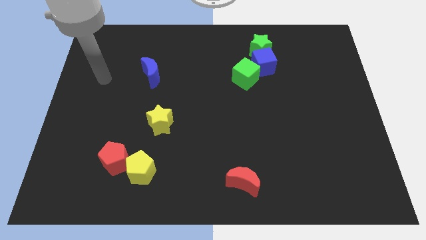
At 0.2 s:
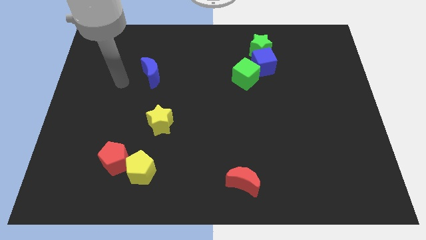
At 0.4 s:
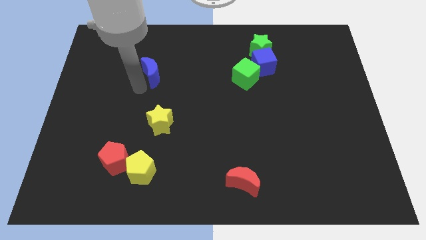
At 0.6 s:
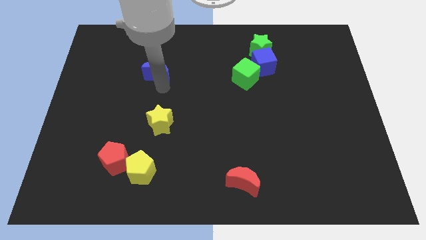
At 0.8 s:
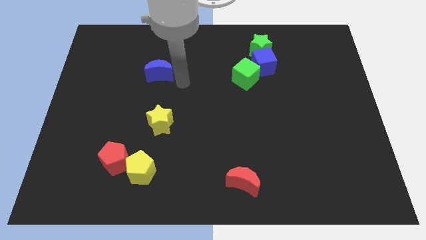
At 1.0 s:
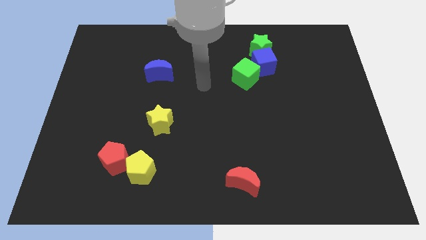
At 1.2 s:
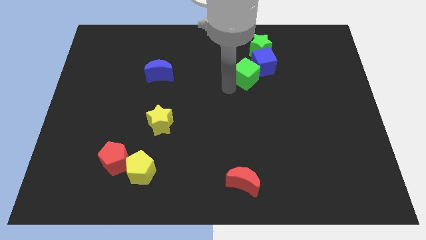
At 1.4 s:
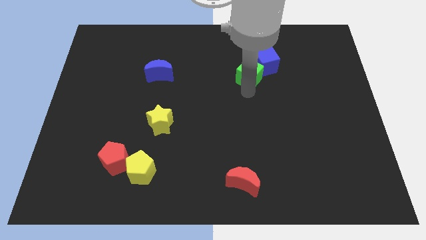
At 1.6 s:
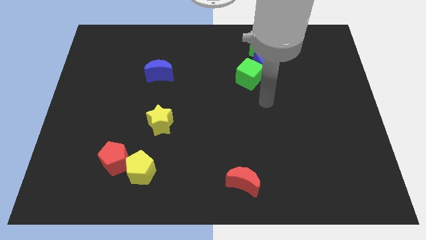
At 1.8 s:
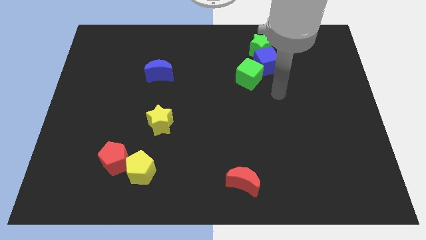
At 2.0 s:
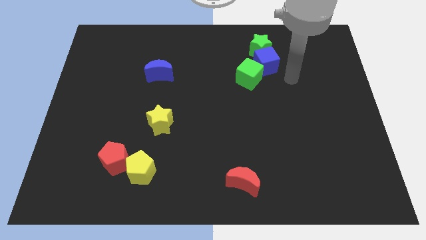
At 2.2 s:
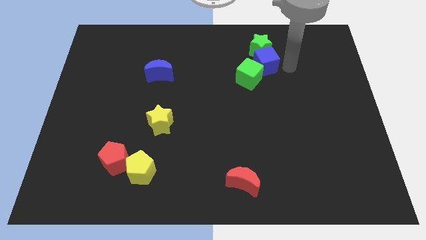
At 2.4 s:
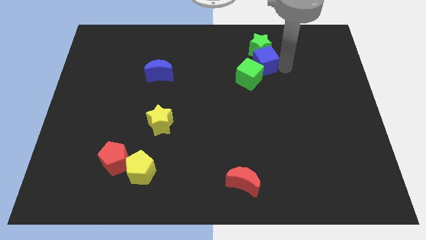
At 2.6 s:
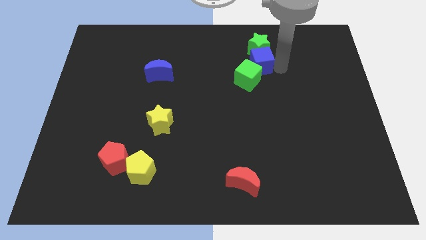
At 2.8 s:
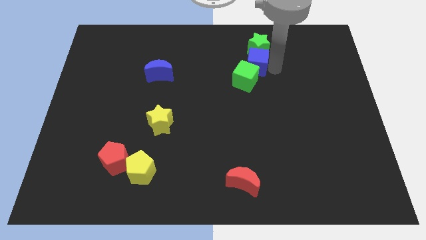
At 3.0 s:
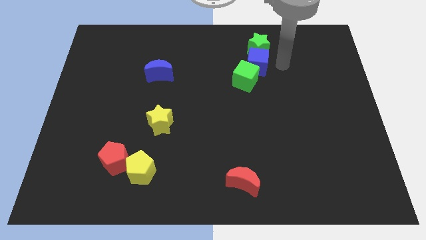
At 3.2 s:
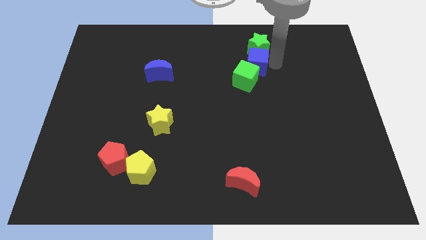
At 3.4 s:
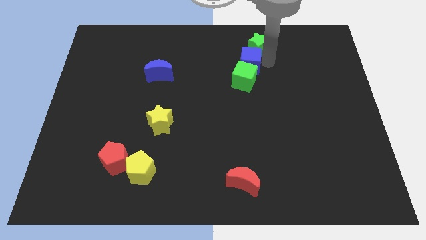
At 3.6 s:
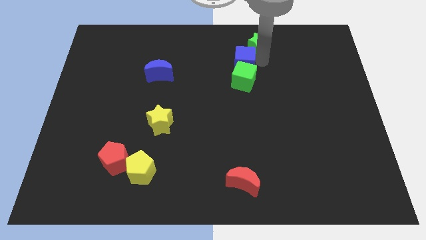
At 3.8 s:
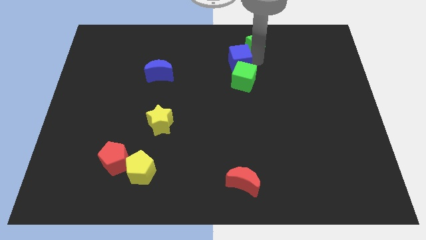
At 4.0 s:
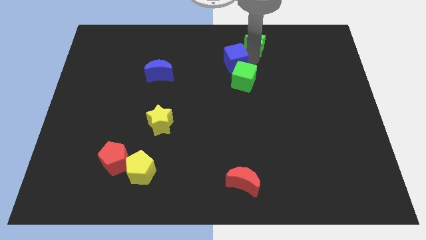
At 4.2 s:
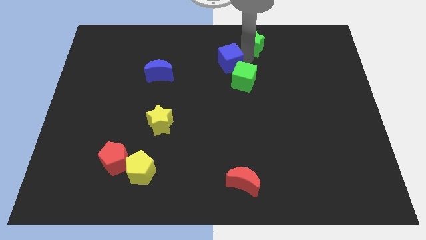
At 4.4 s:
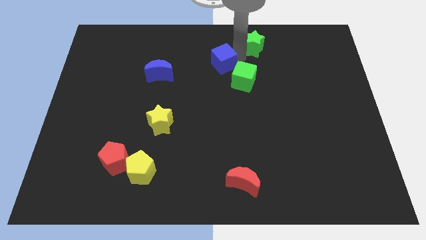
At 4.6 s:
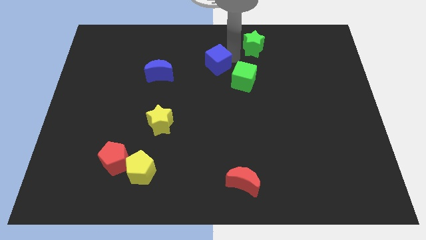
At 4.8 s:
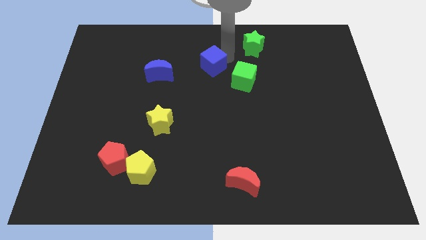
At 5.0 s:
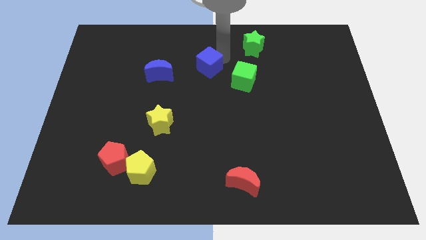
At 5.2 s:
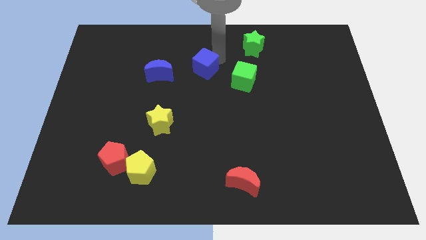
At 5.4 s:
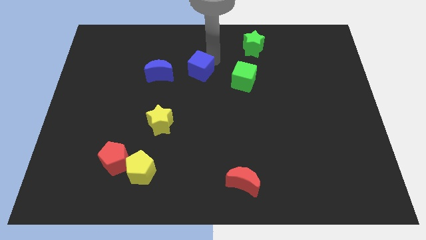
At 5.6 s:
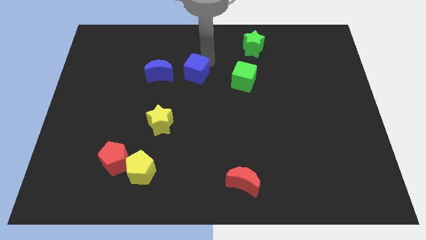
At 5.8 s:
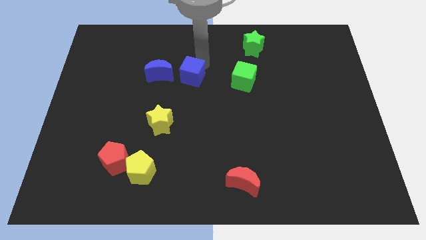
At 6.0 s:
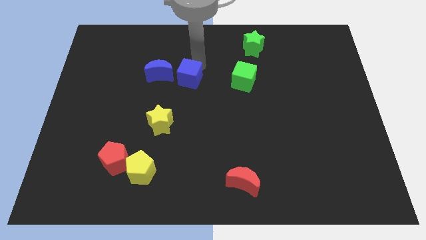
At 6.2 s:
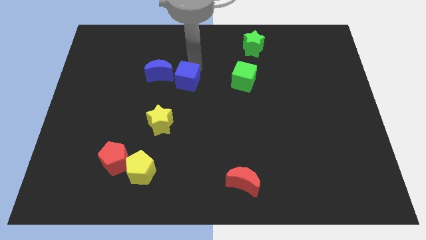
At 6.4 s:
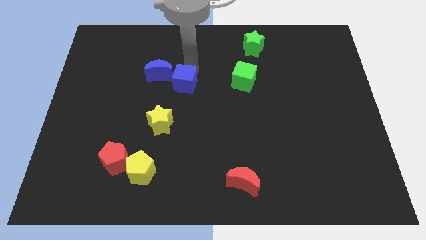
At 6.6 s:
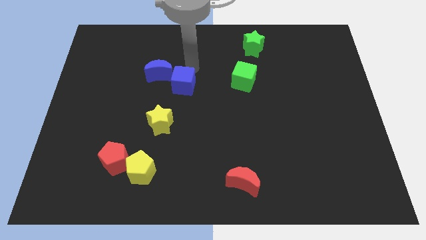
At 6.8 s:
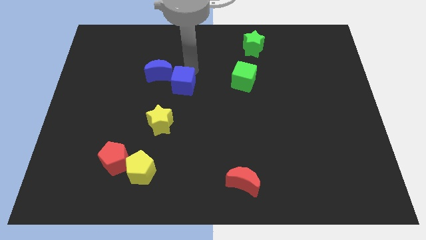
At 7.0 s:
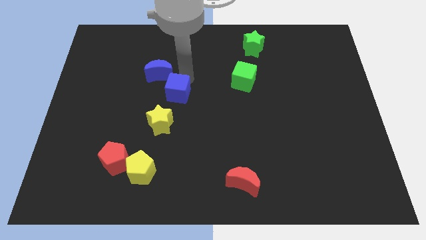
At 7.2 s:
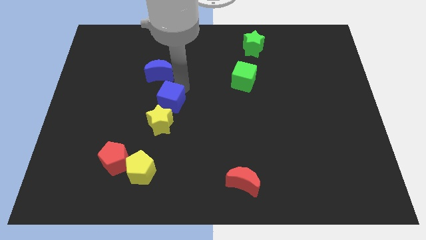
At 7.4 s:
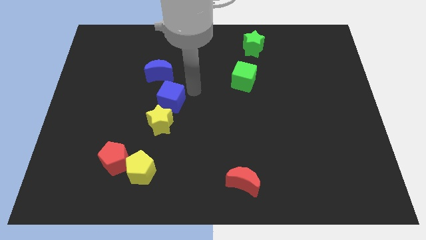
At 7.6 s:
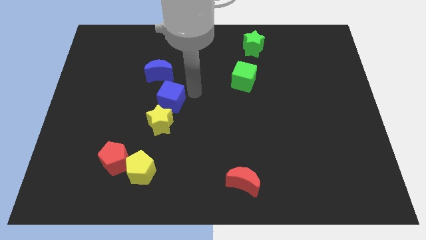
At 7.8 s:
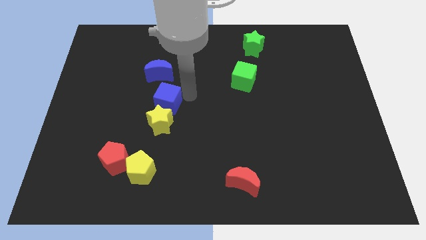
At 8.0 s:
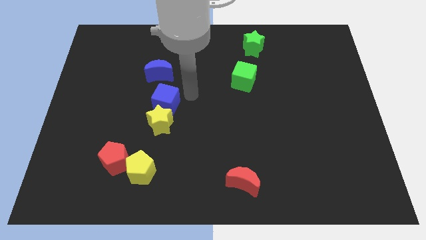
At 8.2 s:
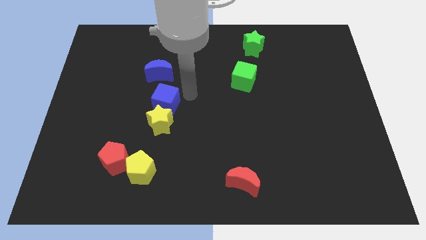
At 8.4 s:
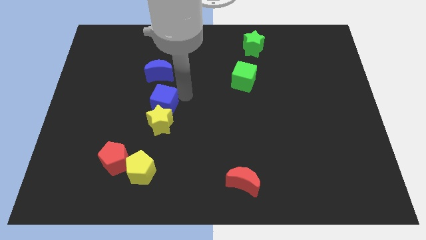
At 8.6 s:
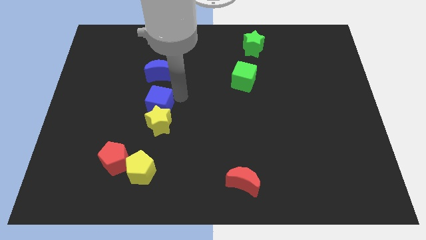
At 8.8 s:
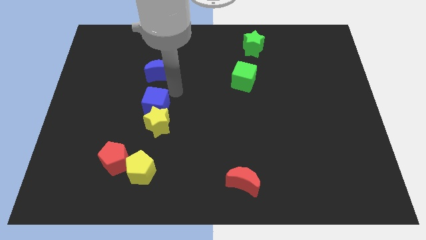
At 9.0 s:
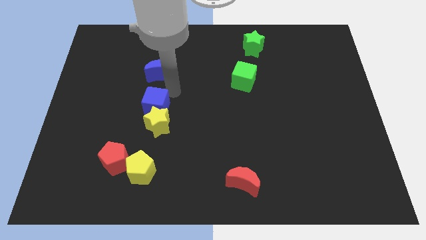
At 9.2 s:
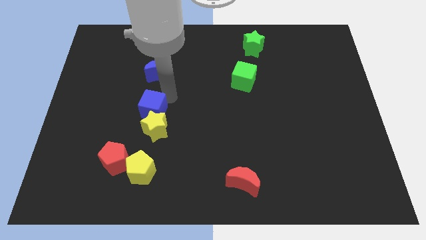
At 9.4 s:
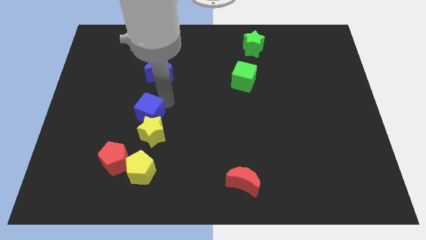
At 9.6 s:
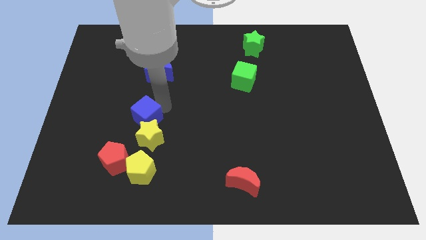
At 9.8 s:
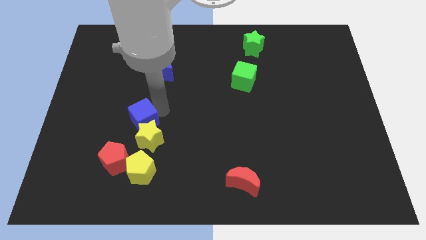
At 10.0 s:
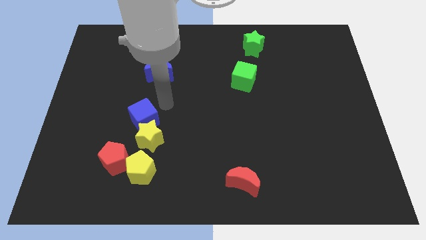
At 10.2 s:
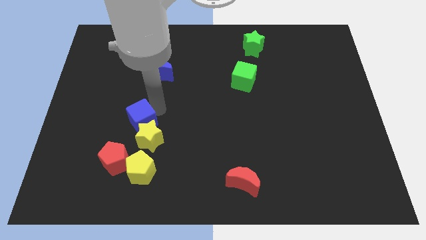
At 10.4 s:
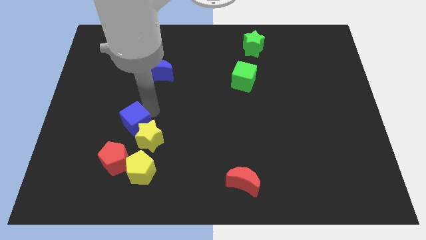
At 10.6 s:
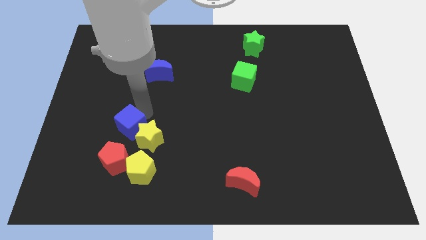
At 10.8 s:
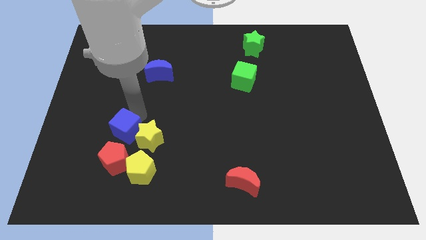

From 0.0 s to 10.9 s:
put the blue cube to the top left side of the yellow pentagon

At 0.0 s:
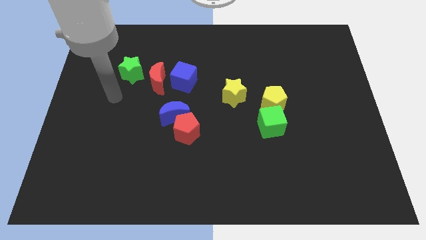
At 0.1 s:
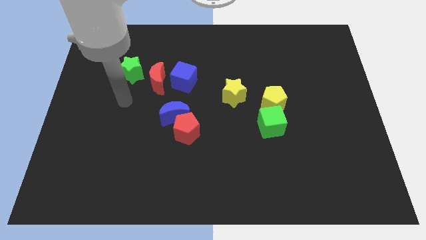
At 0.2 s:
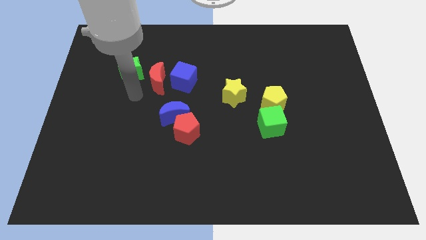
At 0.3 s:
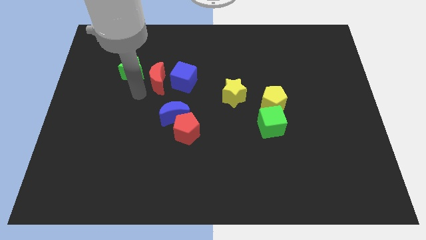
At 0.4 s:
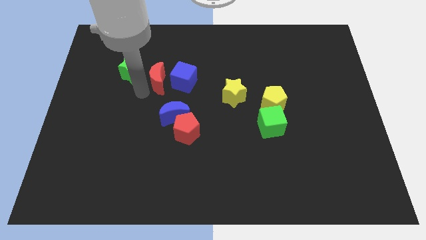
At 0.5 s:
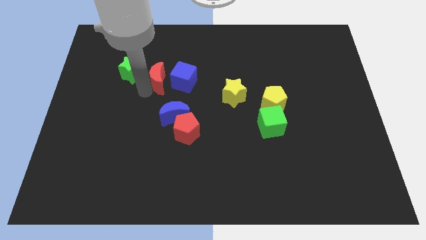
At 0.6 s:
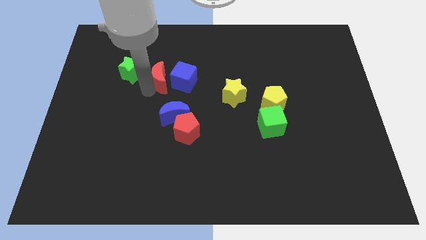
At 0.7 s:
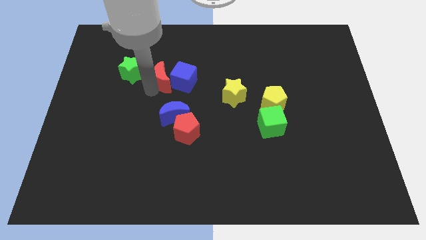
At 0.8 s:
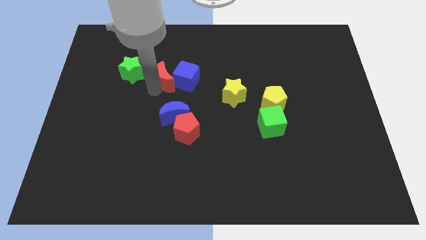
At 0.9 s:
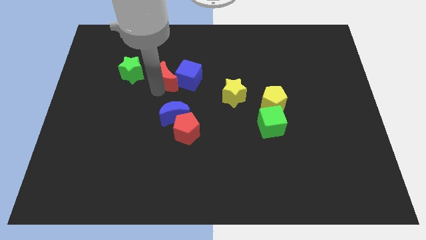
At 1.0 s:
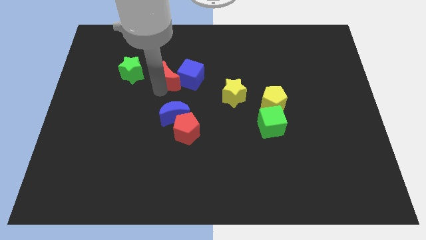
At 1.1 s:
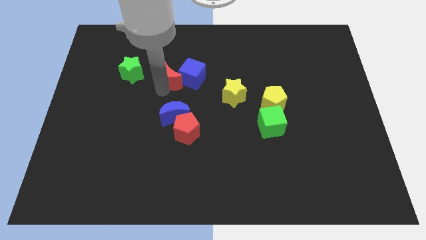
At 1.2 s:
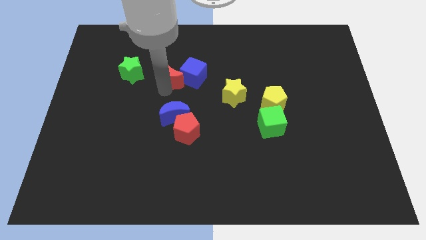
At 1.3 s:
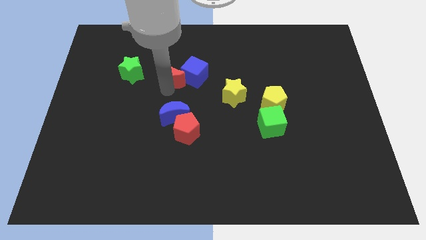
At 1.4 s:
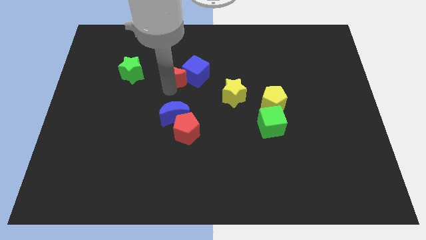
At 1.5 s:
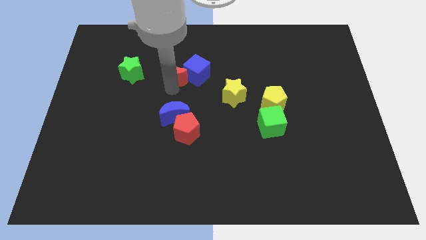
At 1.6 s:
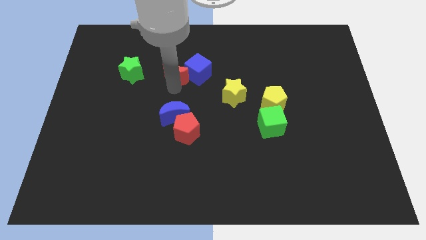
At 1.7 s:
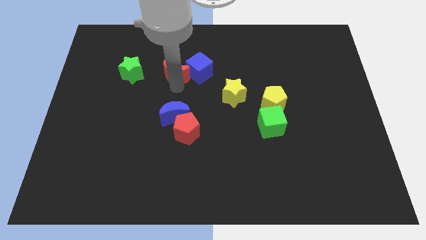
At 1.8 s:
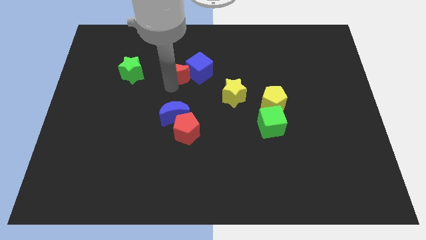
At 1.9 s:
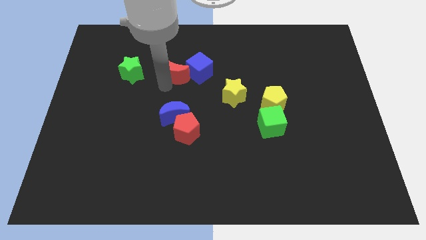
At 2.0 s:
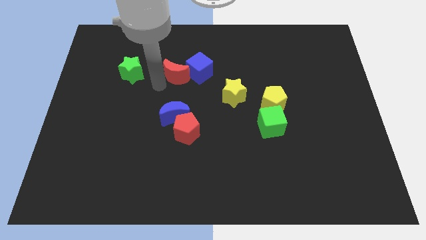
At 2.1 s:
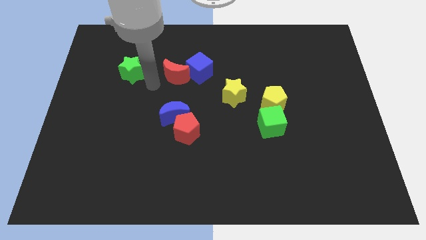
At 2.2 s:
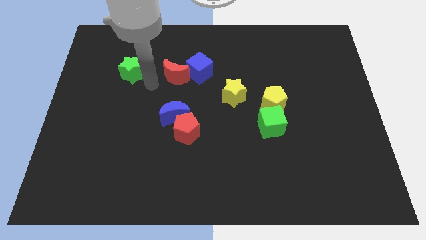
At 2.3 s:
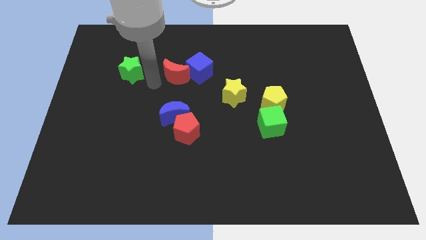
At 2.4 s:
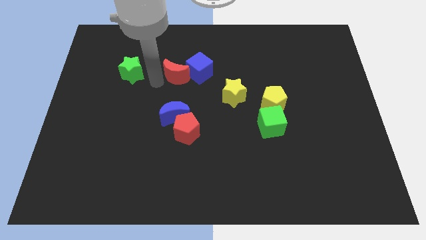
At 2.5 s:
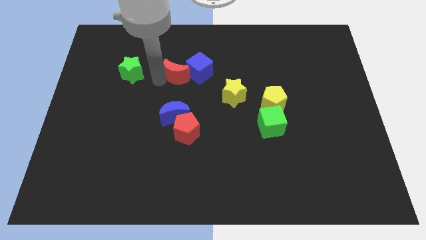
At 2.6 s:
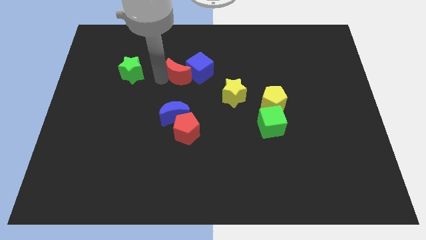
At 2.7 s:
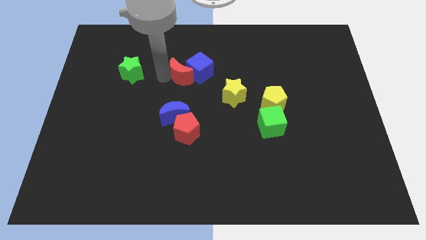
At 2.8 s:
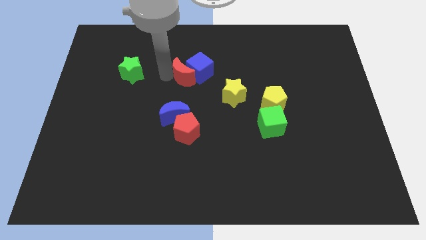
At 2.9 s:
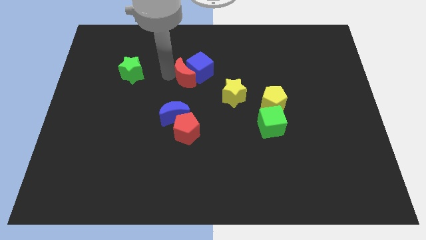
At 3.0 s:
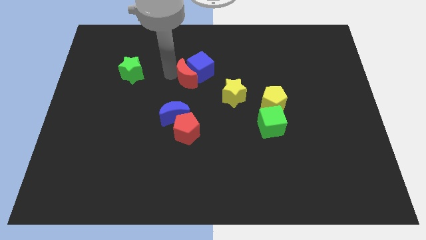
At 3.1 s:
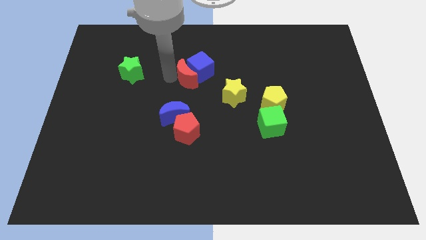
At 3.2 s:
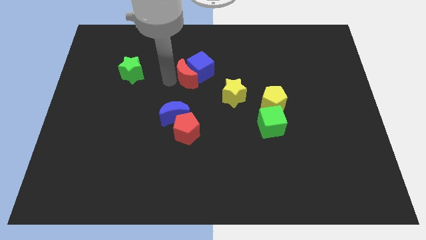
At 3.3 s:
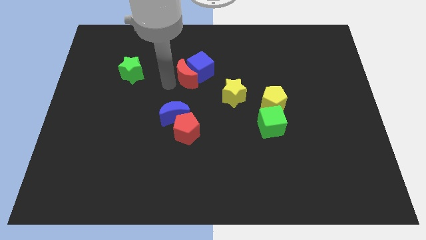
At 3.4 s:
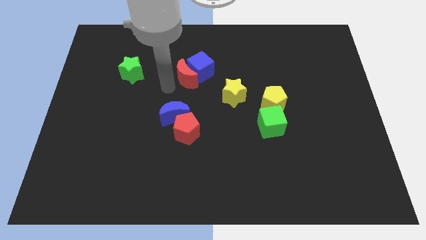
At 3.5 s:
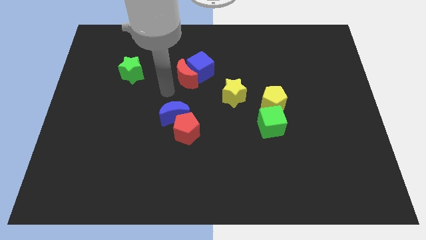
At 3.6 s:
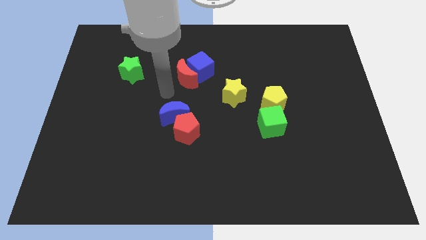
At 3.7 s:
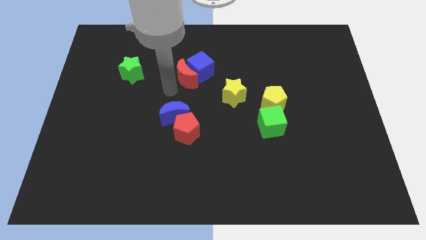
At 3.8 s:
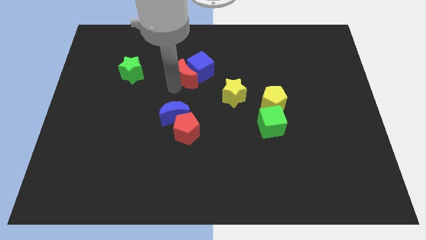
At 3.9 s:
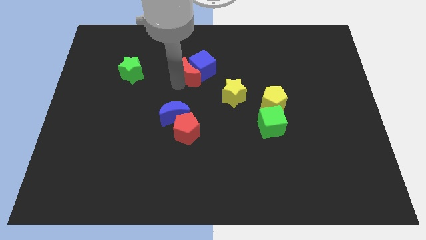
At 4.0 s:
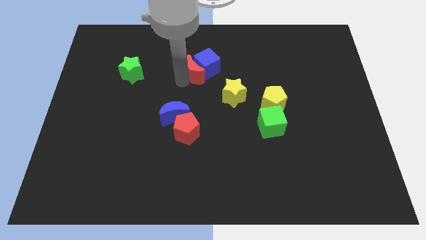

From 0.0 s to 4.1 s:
put the red moon diagonally up and to the left of the yellow star
